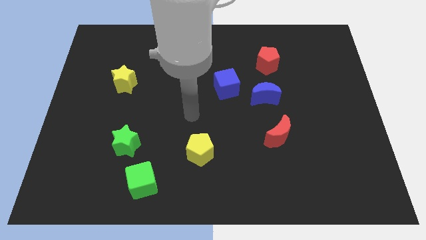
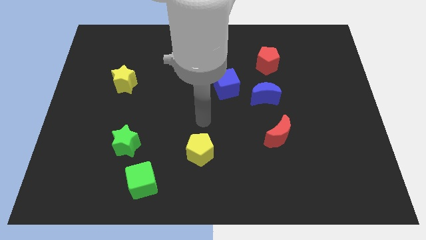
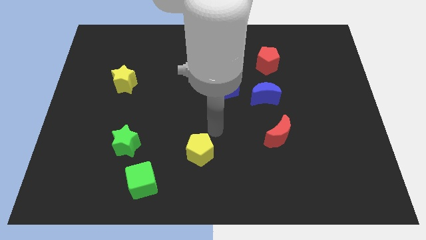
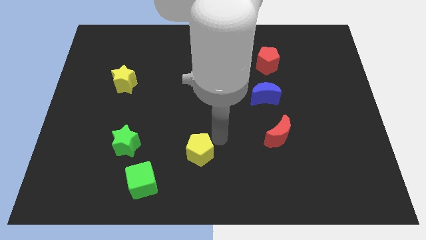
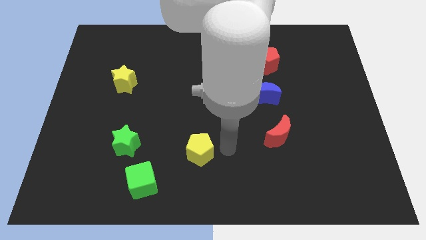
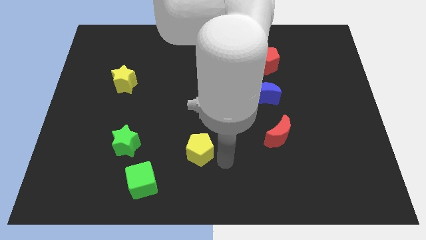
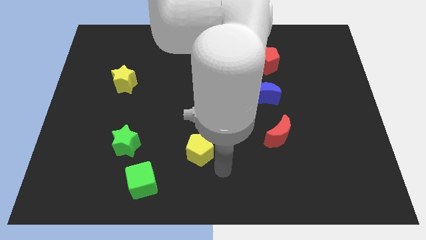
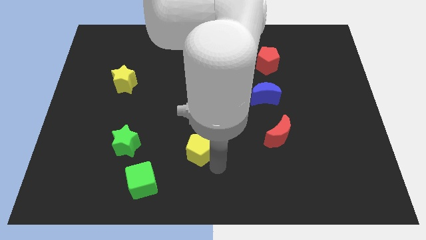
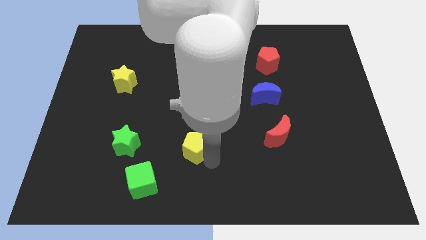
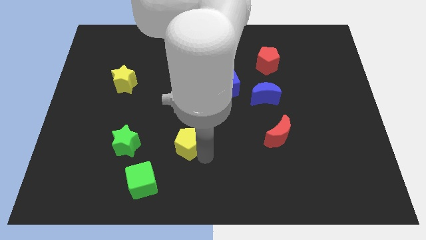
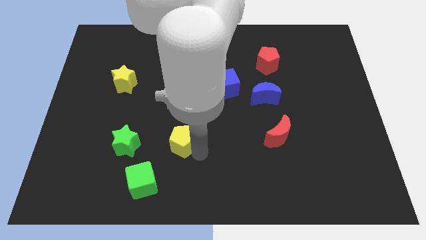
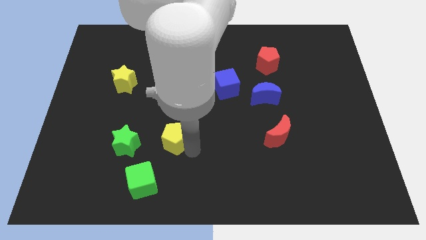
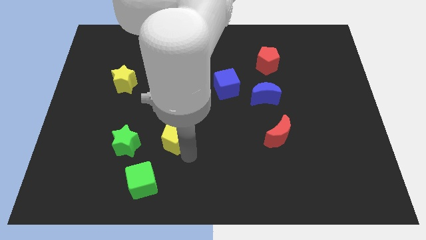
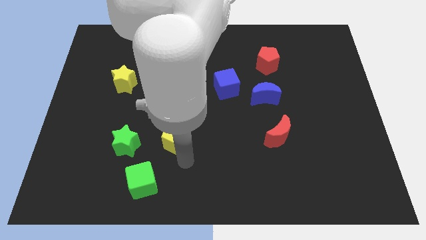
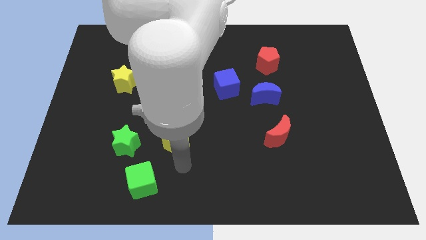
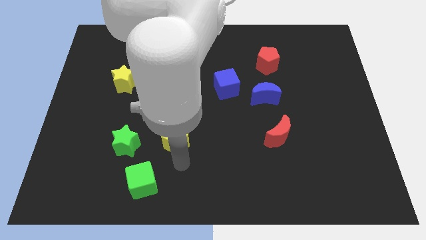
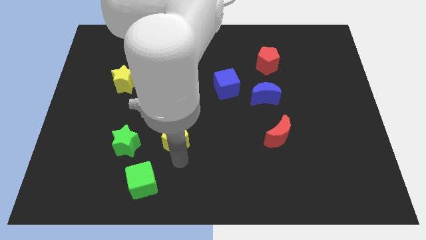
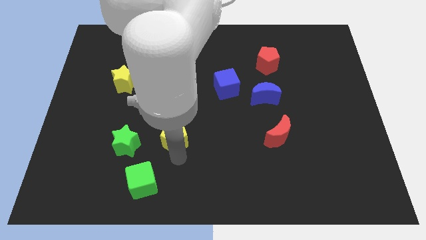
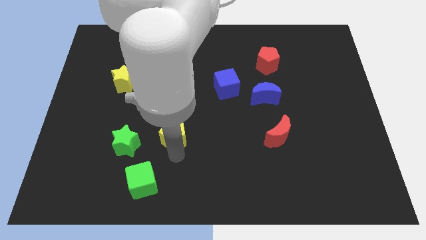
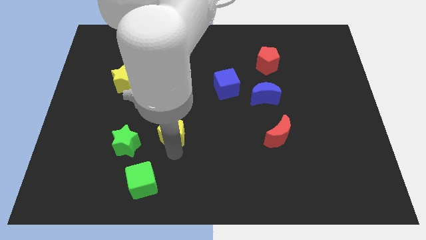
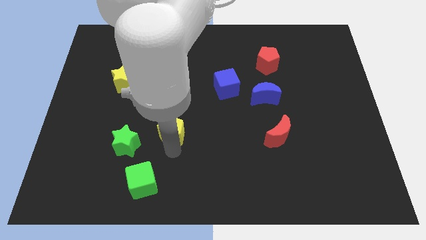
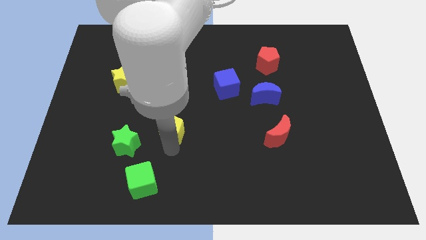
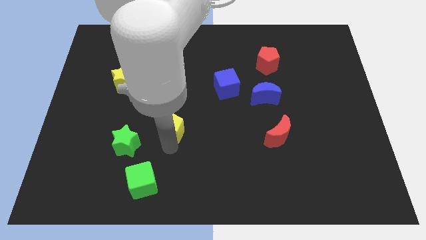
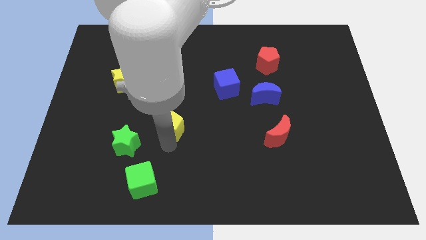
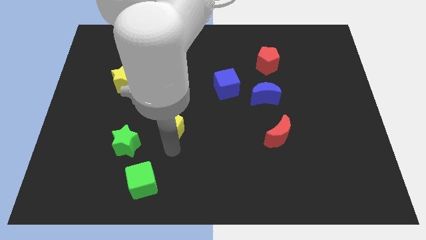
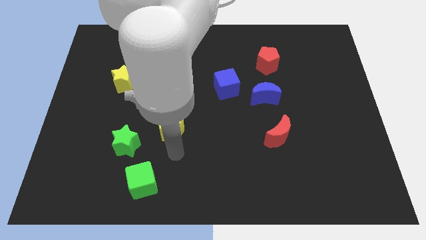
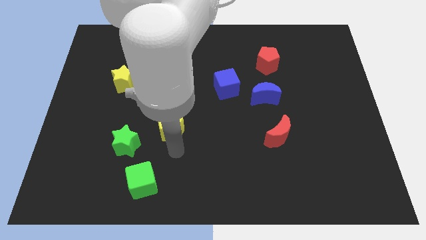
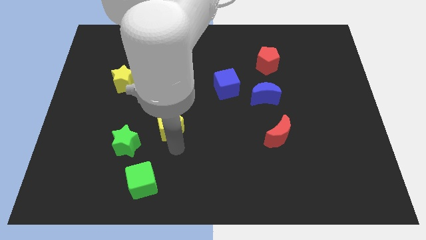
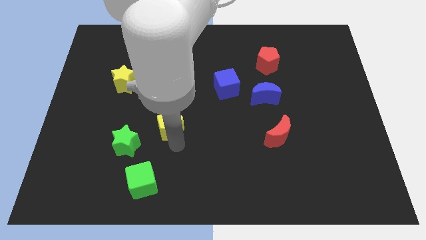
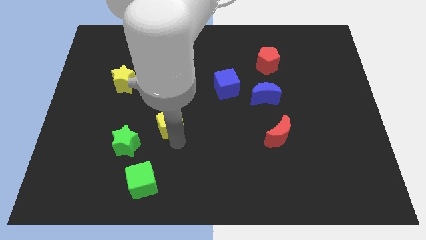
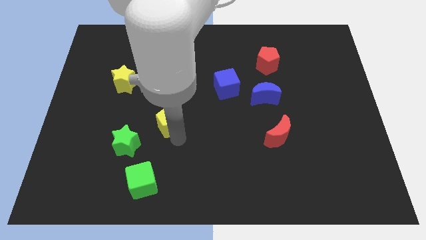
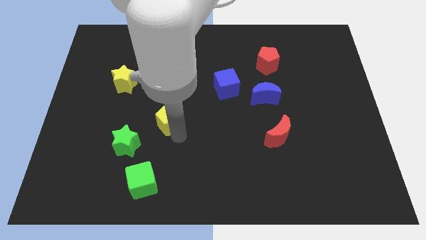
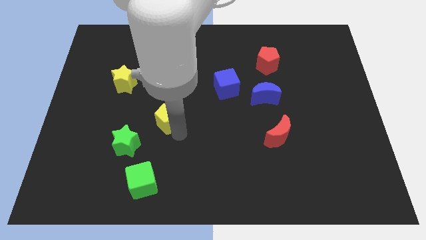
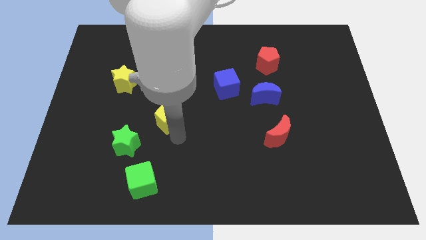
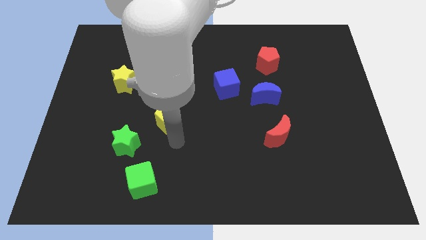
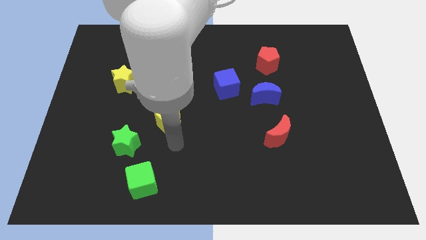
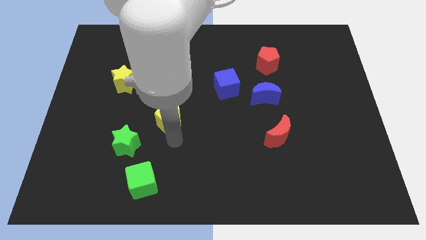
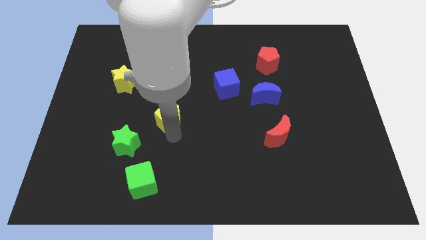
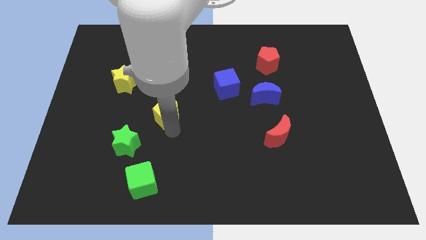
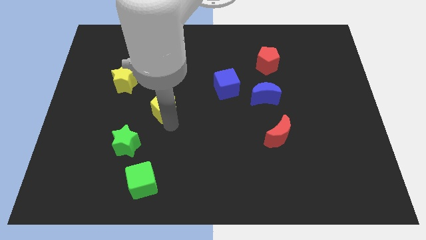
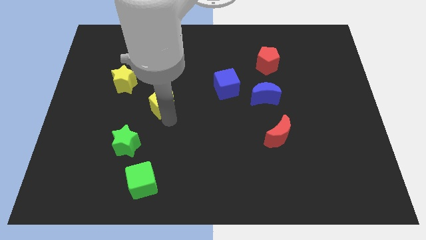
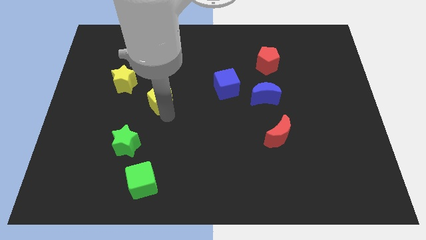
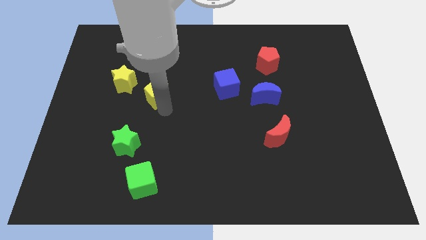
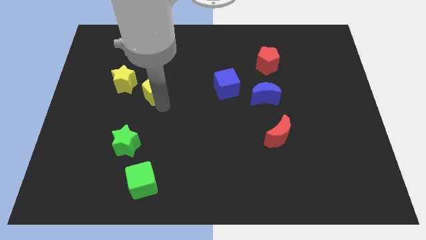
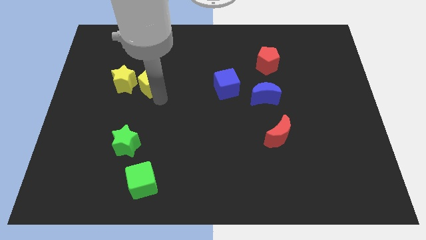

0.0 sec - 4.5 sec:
move the yellow pentagon diagonally up and to the left

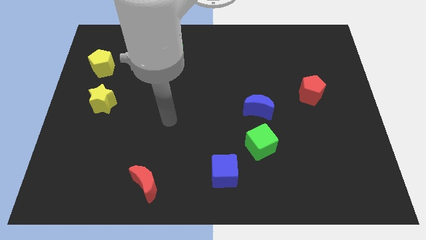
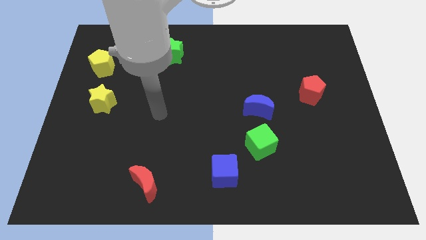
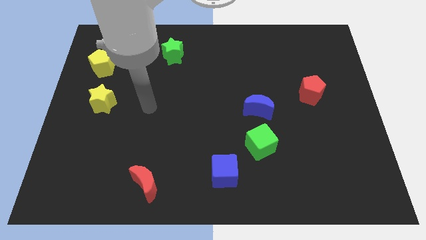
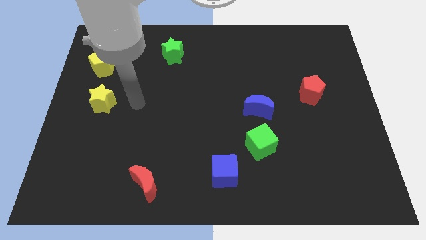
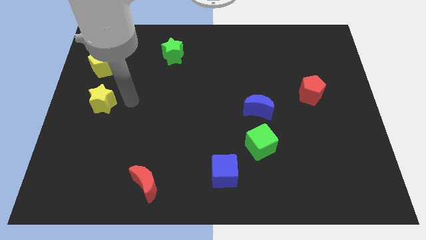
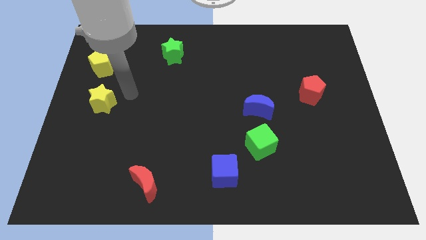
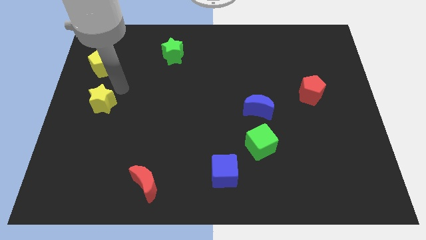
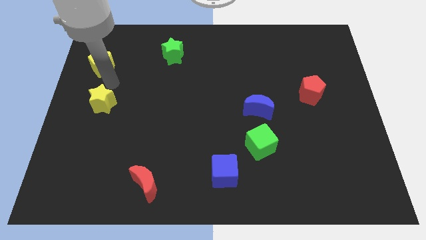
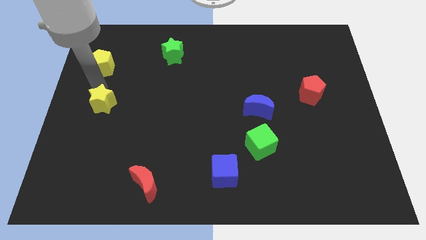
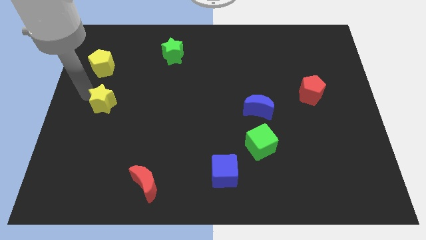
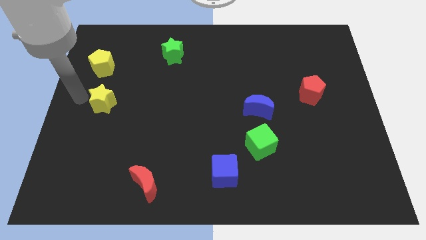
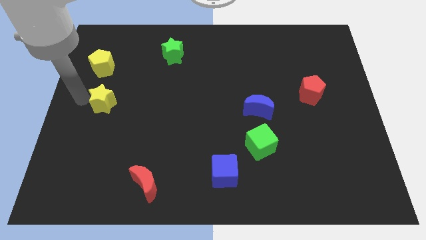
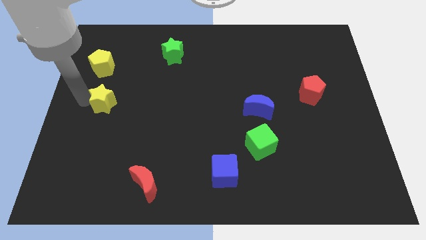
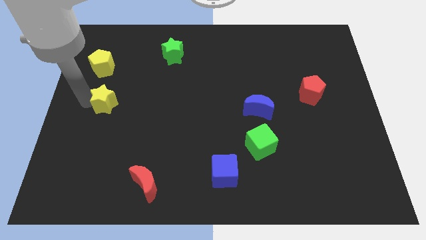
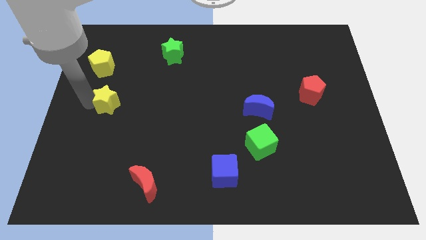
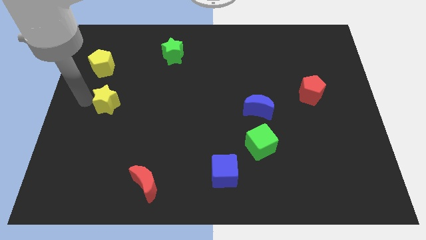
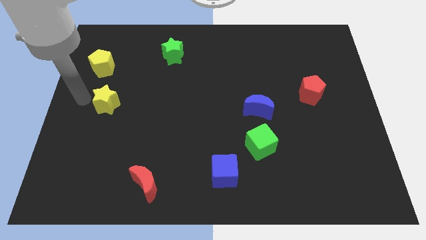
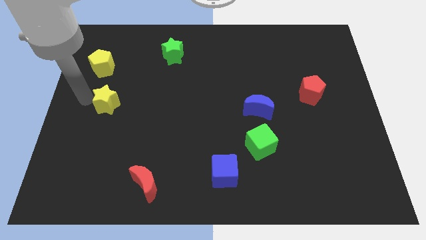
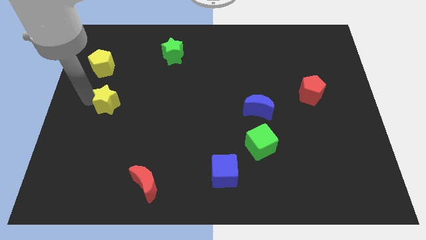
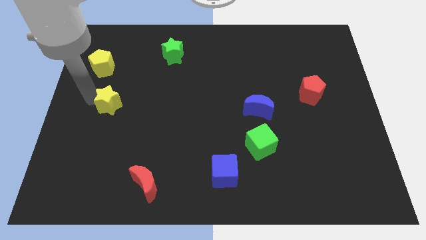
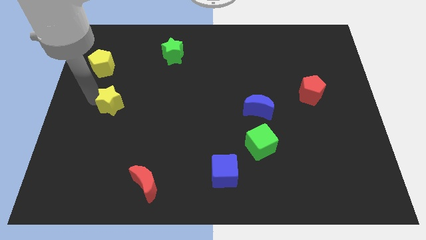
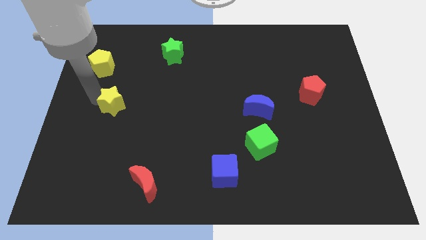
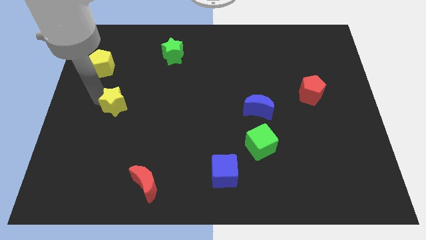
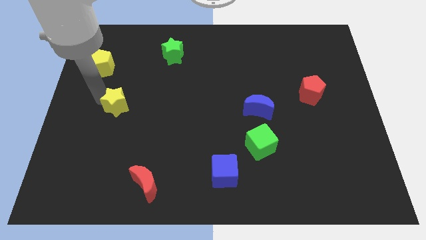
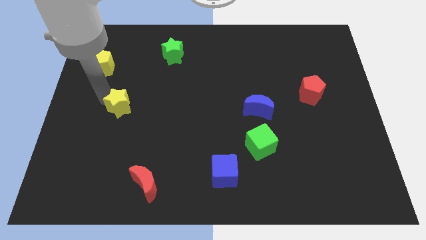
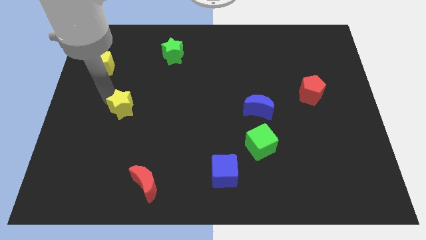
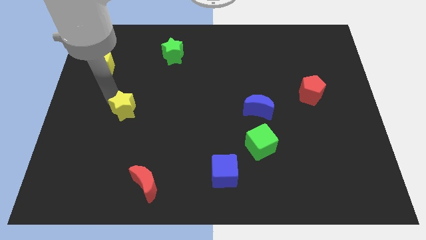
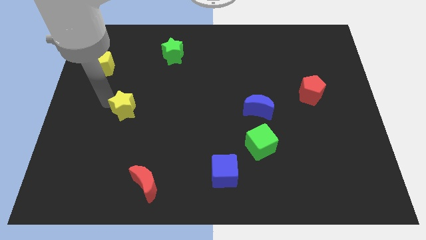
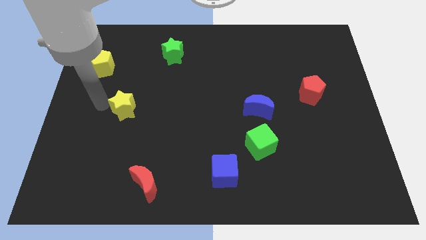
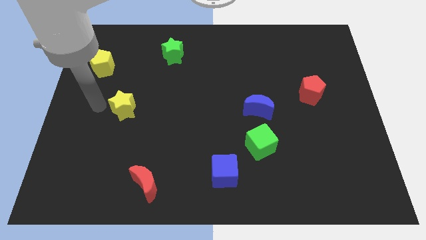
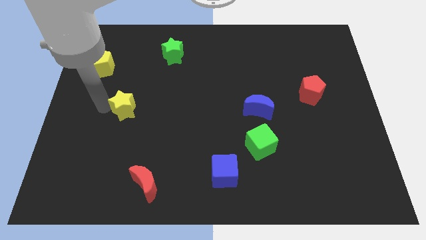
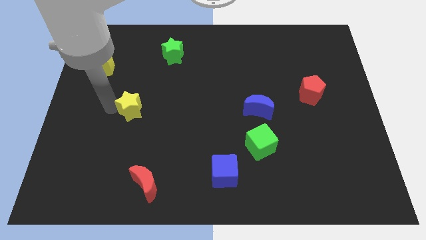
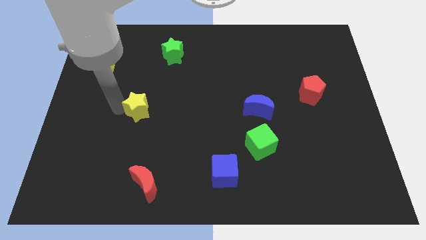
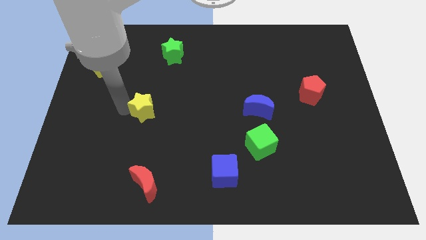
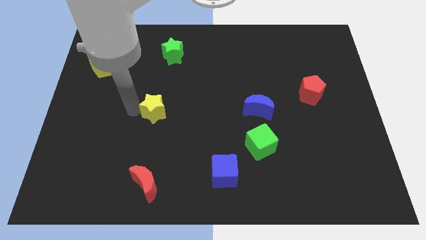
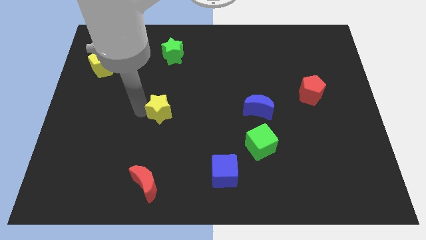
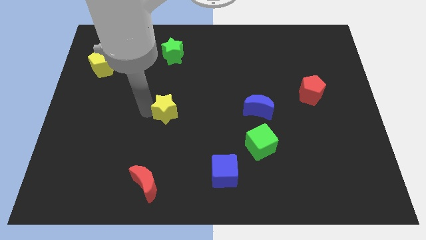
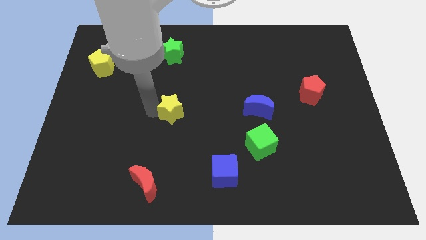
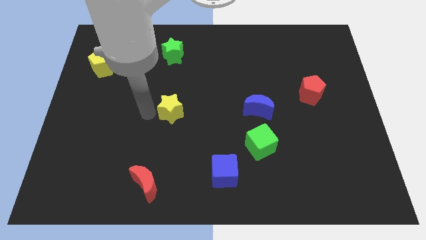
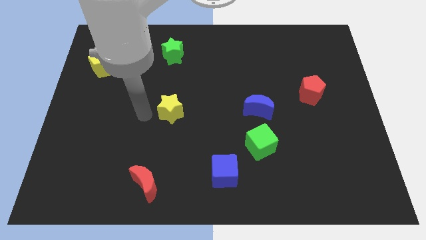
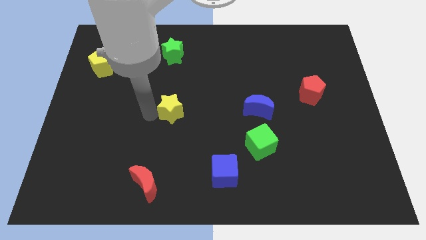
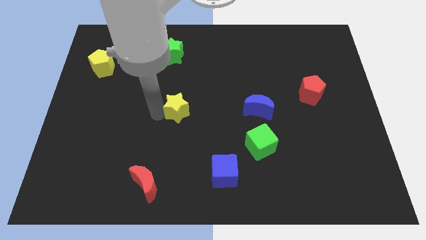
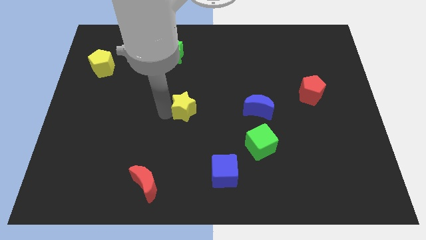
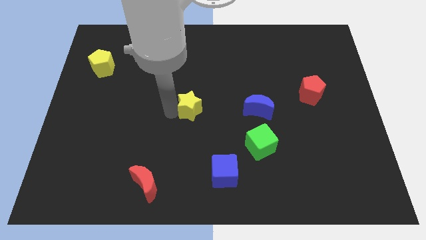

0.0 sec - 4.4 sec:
push the yellow star to the right
